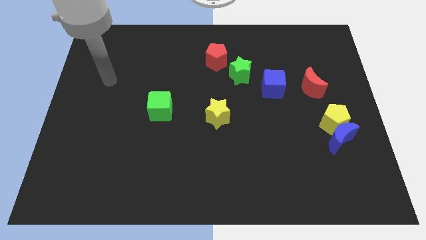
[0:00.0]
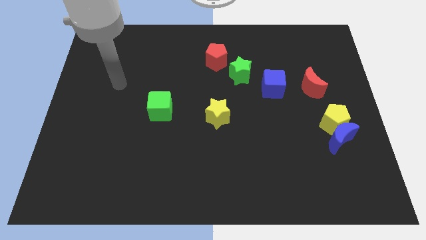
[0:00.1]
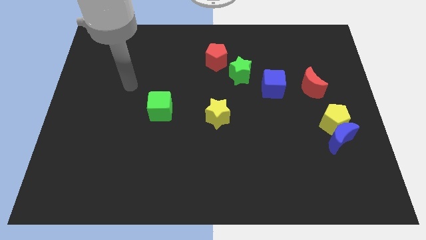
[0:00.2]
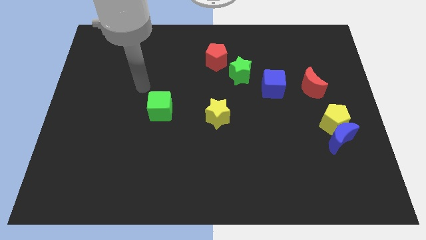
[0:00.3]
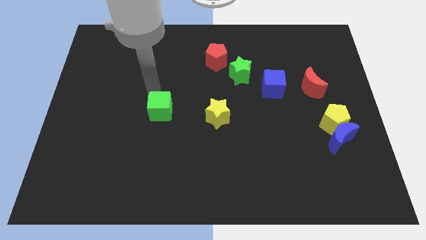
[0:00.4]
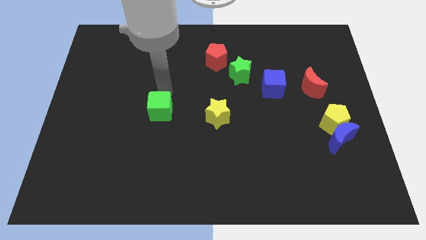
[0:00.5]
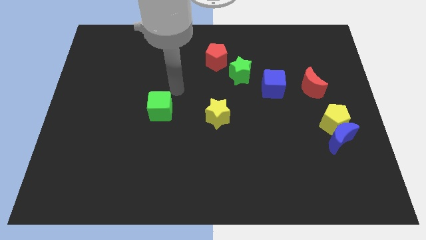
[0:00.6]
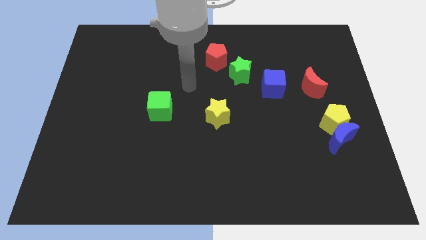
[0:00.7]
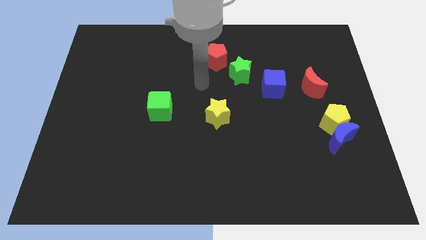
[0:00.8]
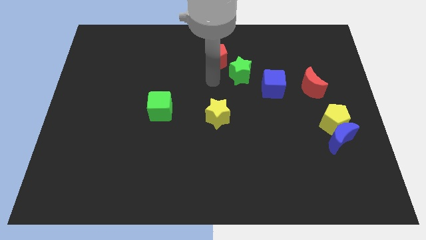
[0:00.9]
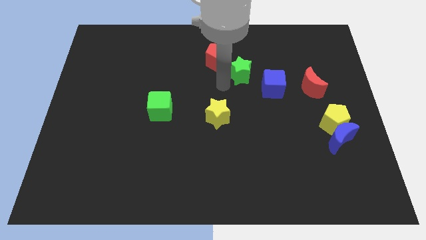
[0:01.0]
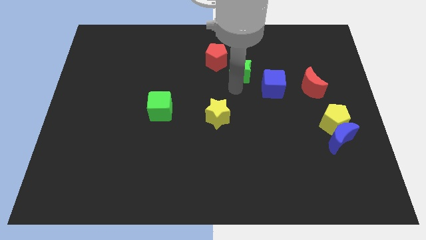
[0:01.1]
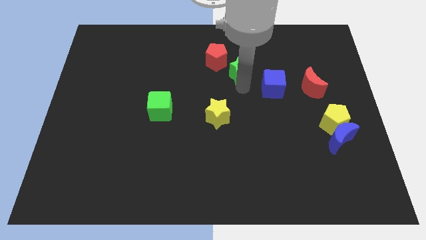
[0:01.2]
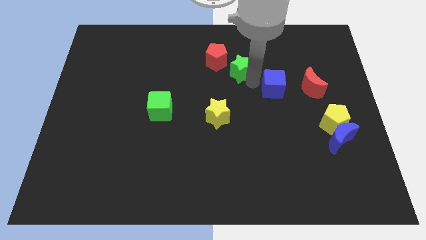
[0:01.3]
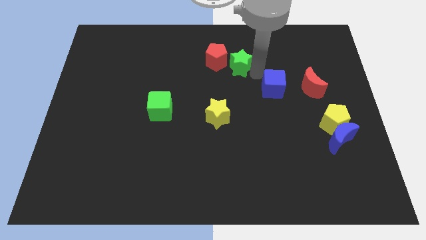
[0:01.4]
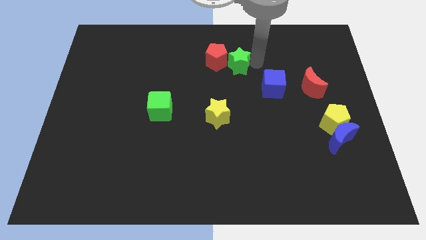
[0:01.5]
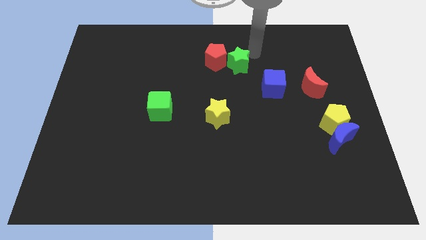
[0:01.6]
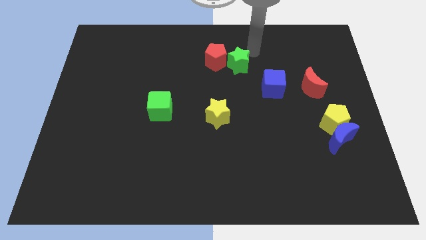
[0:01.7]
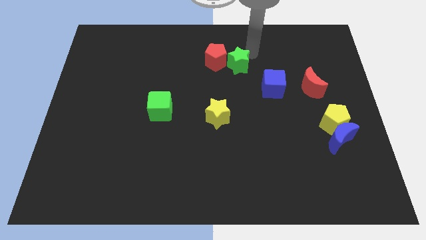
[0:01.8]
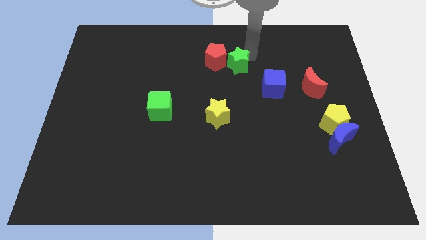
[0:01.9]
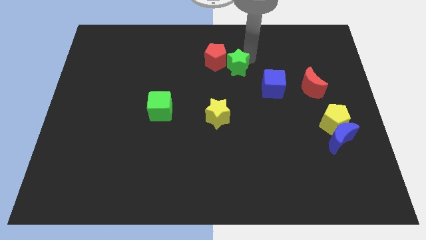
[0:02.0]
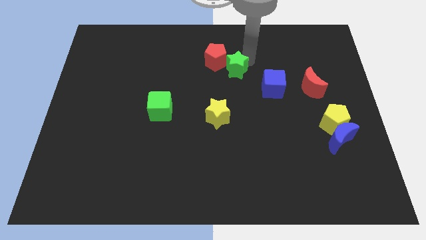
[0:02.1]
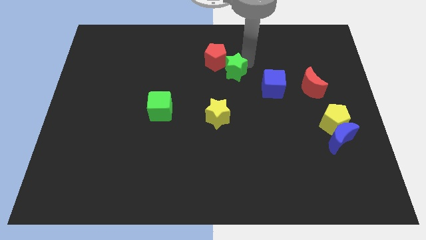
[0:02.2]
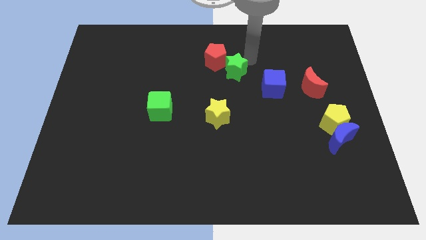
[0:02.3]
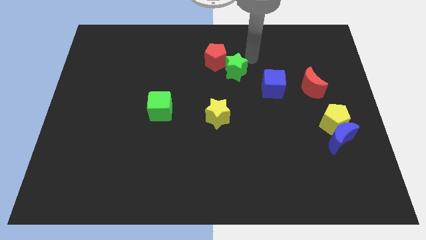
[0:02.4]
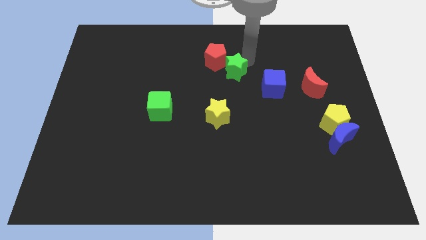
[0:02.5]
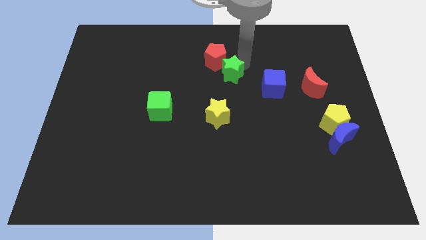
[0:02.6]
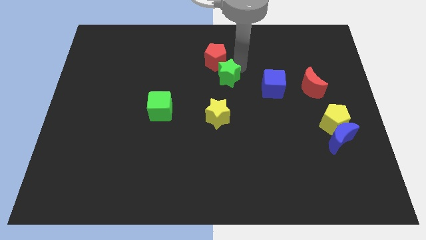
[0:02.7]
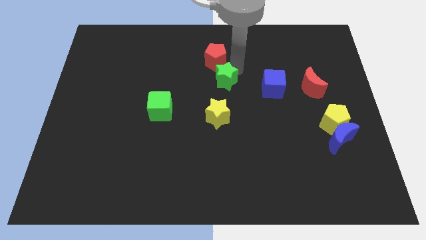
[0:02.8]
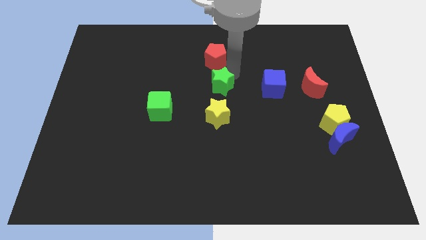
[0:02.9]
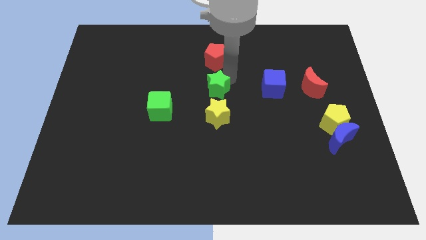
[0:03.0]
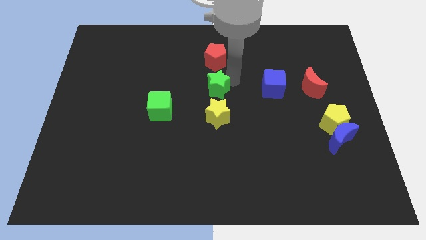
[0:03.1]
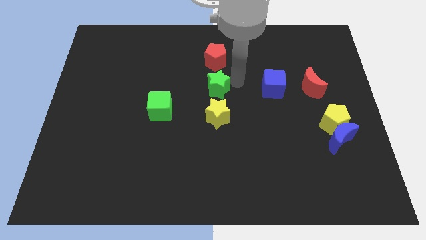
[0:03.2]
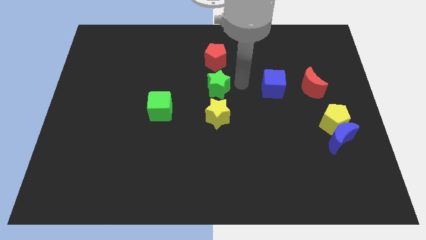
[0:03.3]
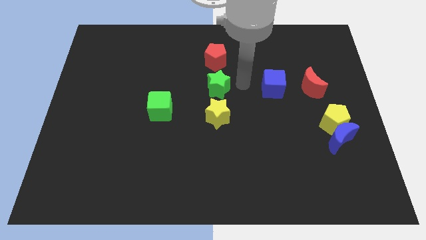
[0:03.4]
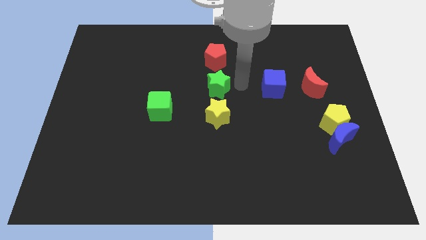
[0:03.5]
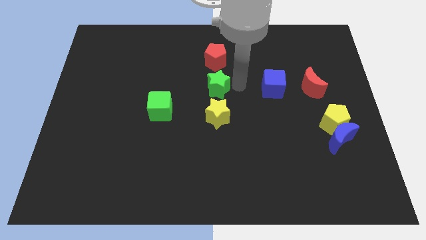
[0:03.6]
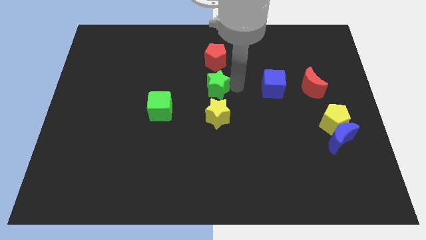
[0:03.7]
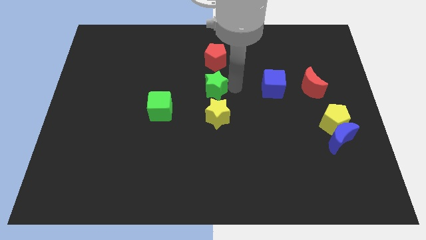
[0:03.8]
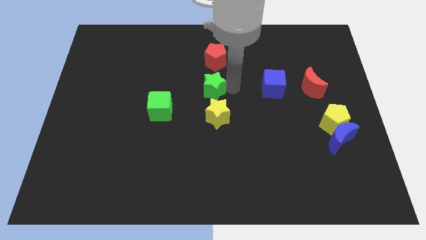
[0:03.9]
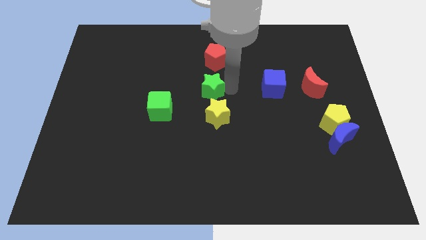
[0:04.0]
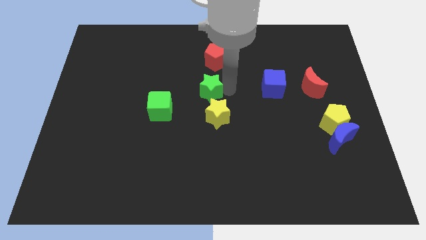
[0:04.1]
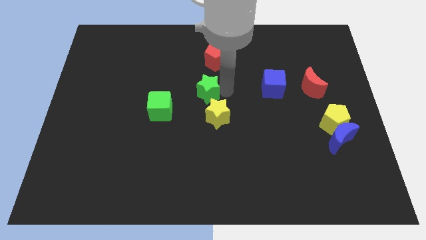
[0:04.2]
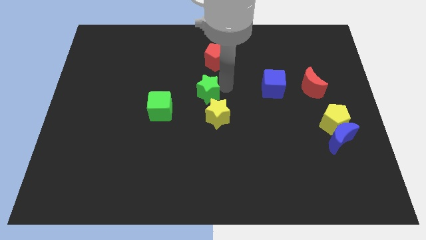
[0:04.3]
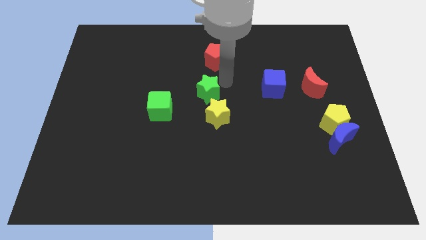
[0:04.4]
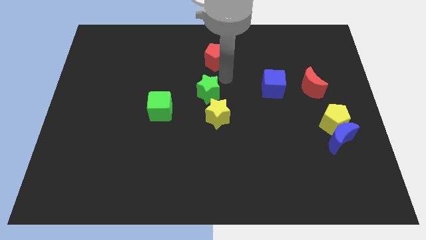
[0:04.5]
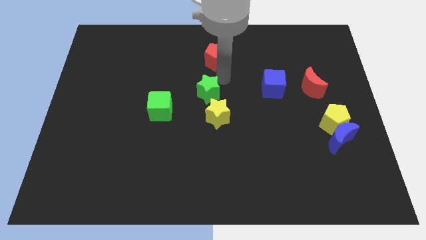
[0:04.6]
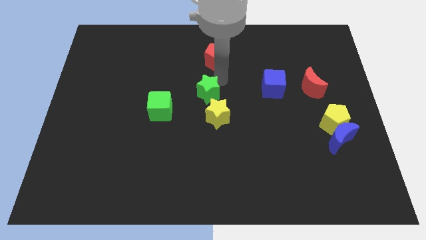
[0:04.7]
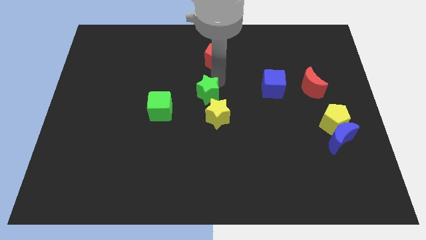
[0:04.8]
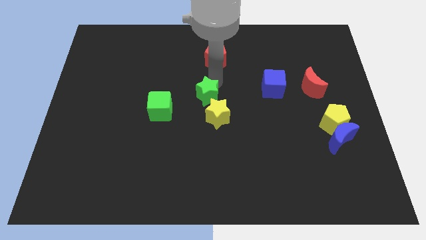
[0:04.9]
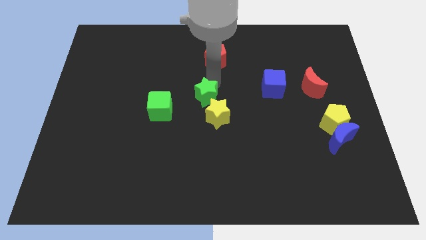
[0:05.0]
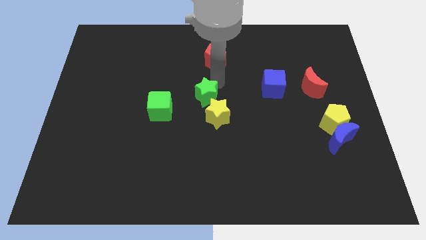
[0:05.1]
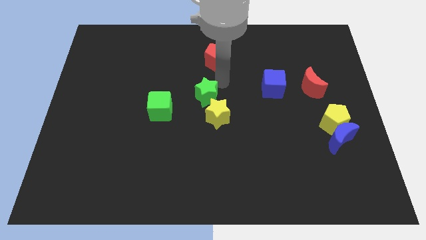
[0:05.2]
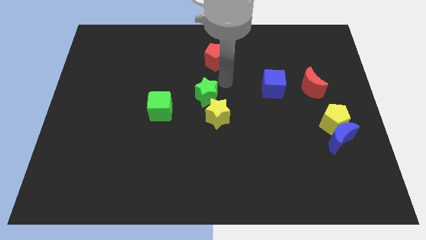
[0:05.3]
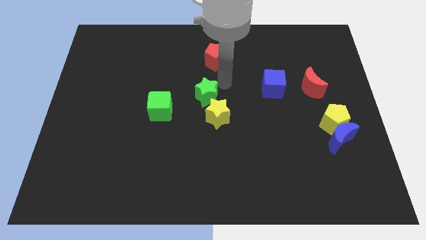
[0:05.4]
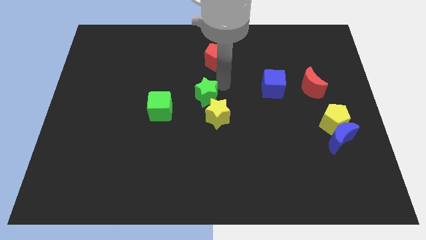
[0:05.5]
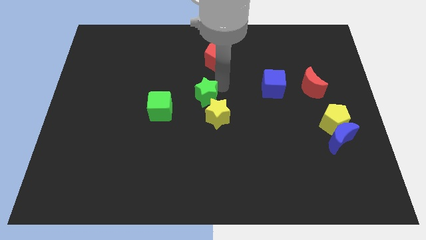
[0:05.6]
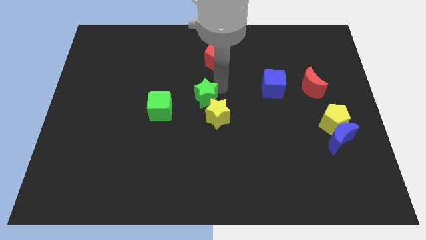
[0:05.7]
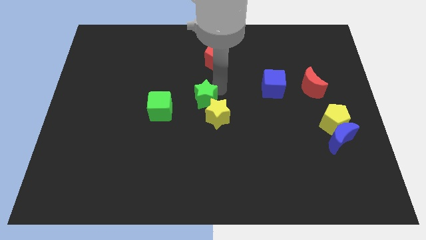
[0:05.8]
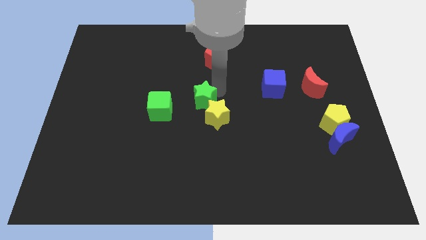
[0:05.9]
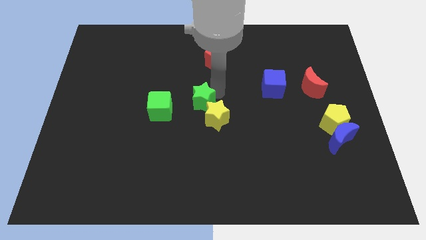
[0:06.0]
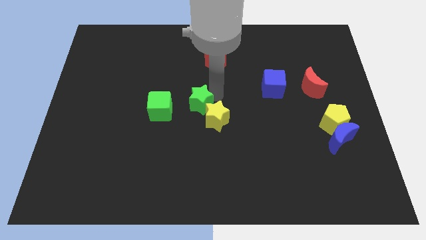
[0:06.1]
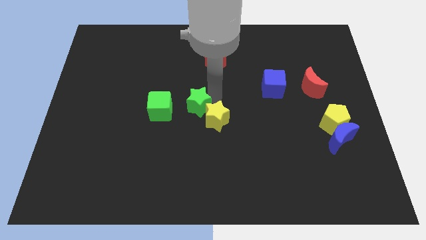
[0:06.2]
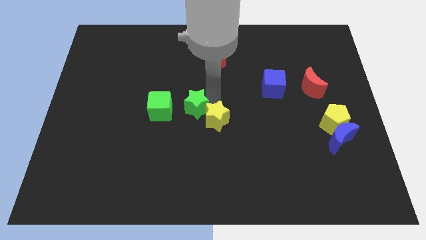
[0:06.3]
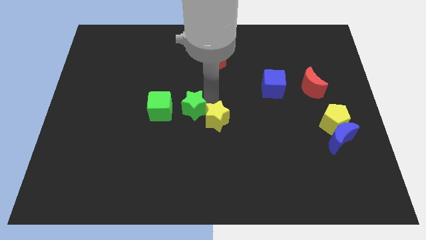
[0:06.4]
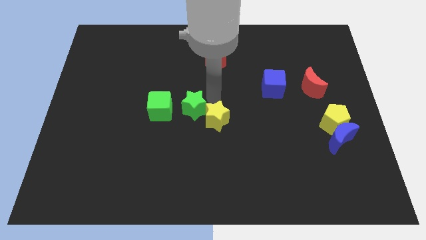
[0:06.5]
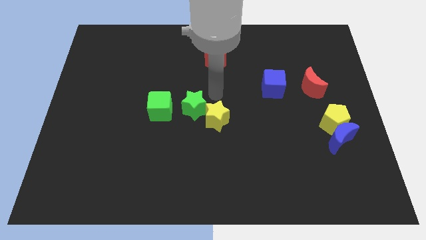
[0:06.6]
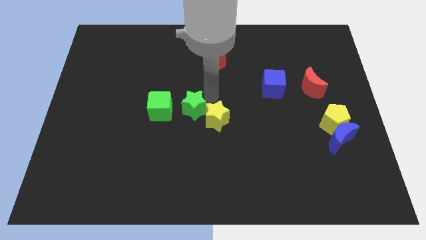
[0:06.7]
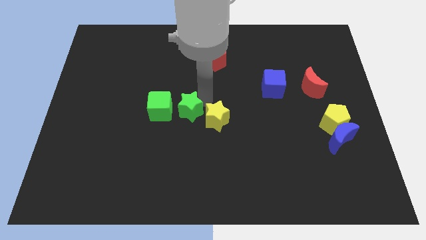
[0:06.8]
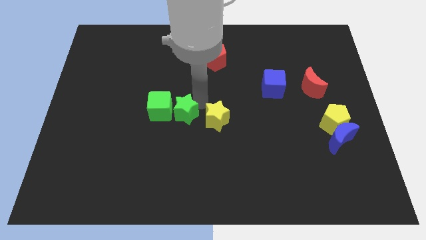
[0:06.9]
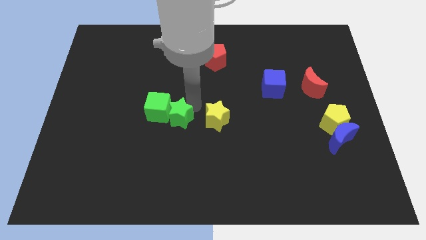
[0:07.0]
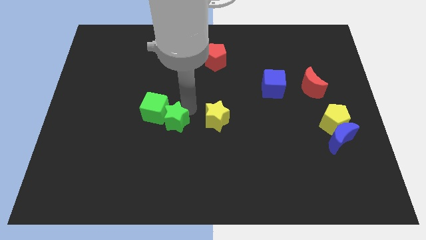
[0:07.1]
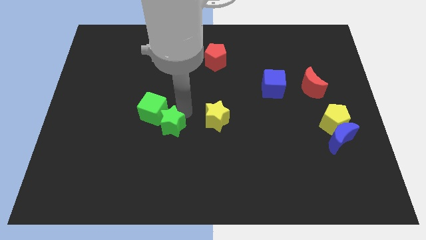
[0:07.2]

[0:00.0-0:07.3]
slide the green star below the green cube
